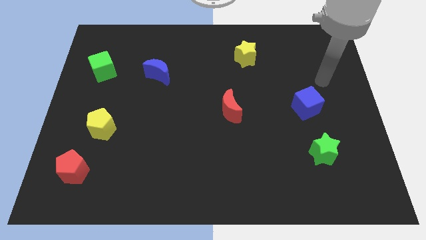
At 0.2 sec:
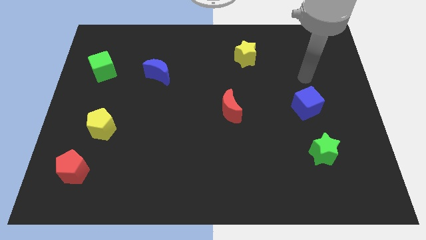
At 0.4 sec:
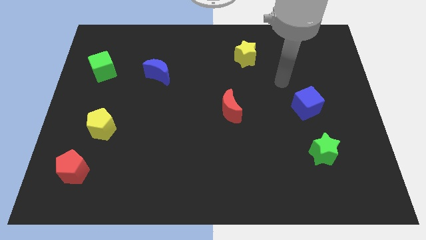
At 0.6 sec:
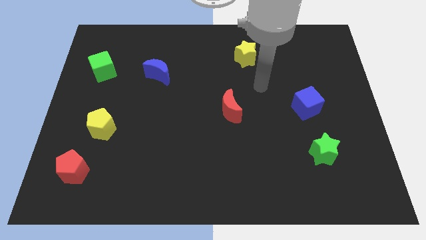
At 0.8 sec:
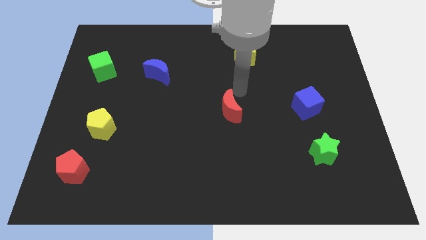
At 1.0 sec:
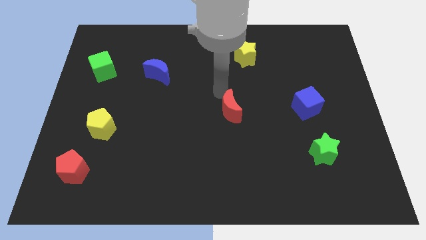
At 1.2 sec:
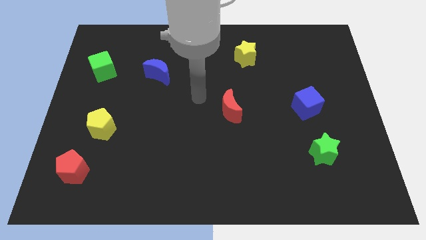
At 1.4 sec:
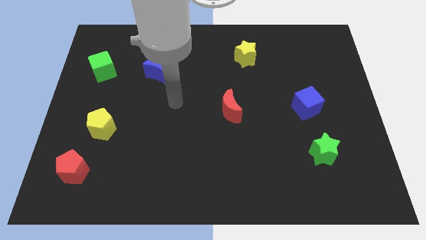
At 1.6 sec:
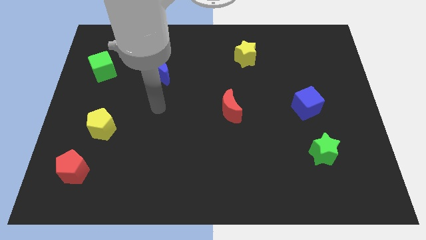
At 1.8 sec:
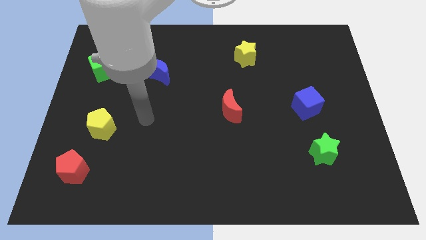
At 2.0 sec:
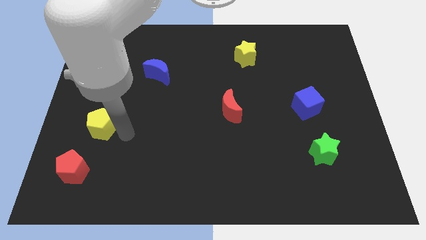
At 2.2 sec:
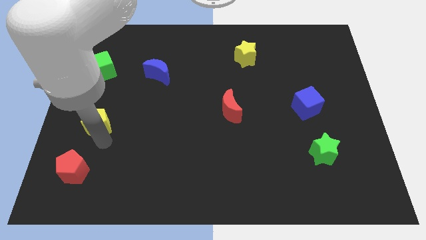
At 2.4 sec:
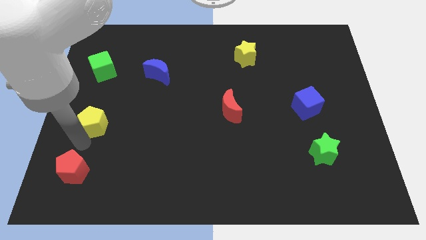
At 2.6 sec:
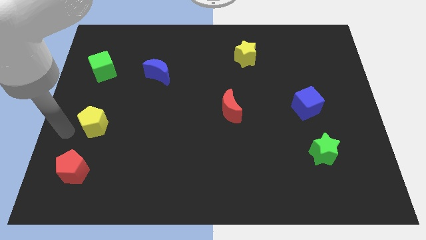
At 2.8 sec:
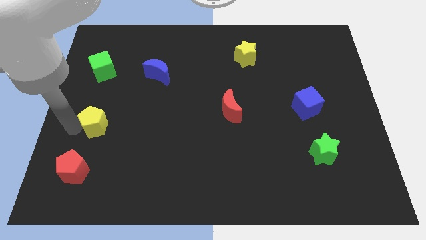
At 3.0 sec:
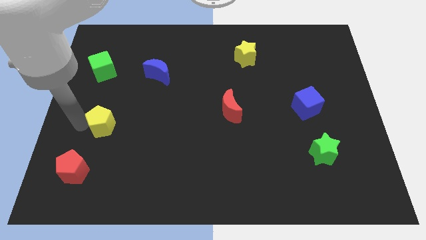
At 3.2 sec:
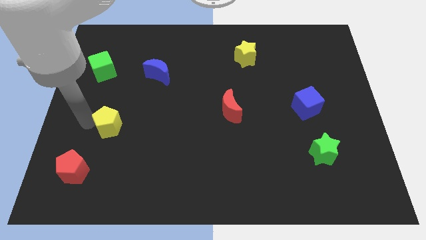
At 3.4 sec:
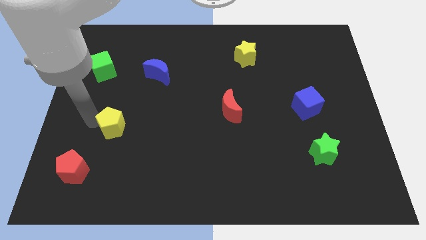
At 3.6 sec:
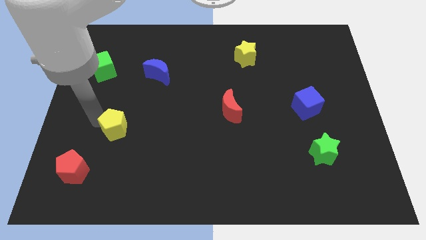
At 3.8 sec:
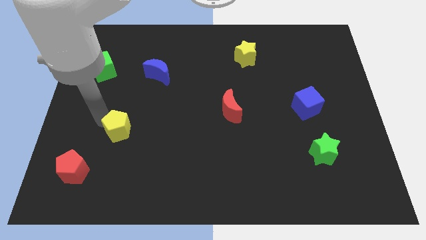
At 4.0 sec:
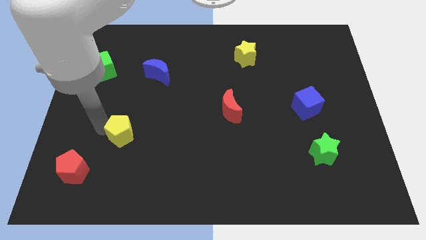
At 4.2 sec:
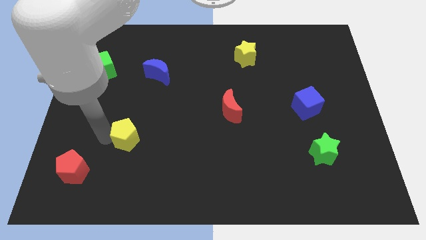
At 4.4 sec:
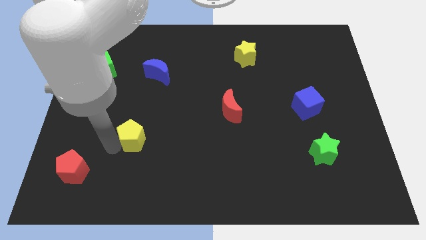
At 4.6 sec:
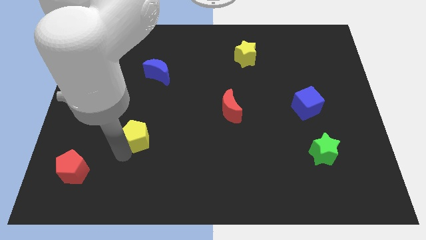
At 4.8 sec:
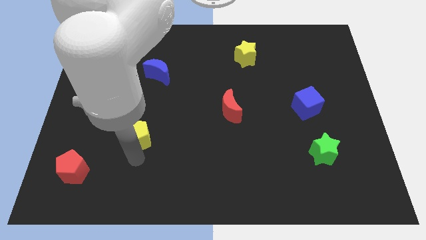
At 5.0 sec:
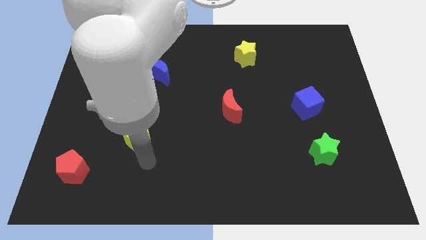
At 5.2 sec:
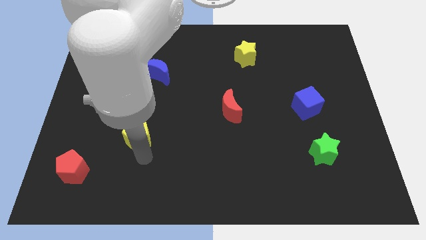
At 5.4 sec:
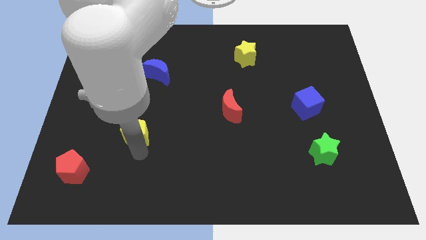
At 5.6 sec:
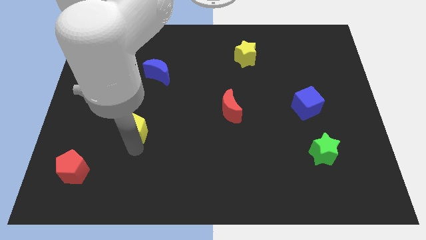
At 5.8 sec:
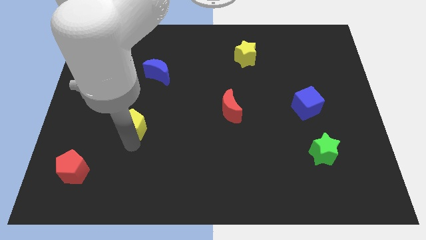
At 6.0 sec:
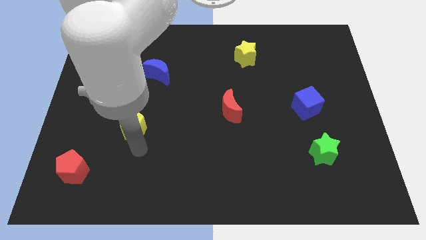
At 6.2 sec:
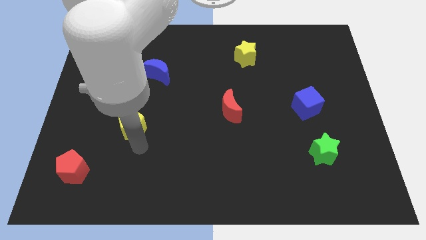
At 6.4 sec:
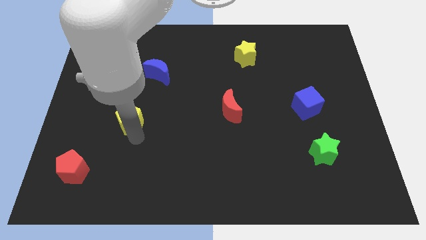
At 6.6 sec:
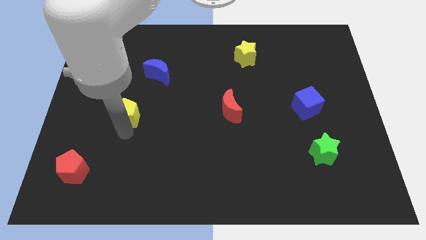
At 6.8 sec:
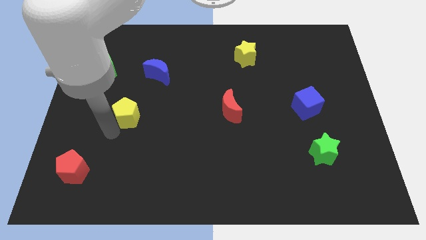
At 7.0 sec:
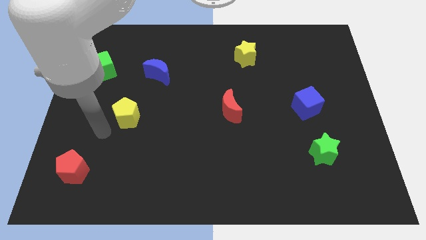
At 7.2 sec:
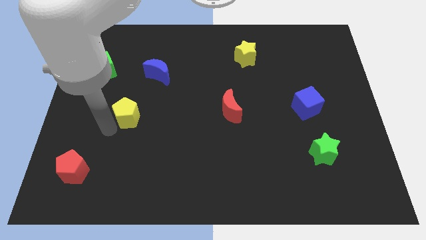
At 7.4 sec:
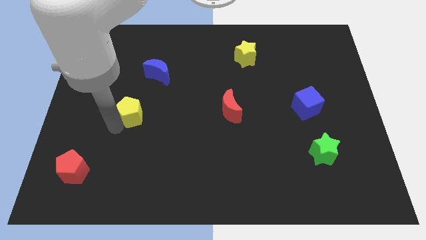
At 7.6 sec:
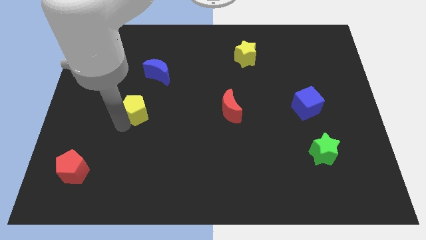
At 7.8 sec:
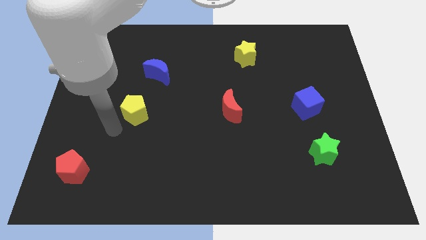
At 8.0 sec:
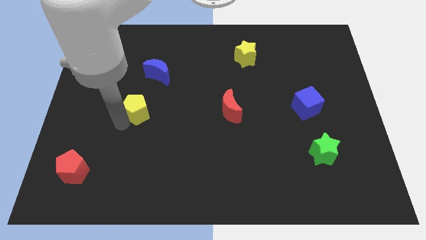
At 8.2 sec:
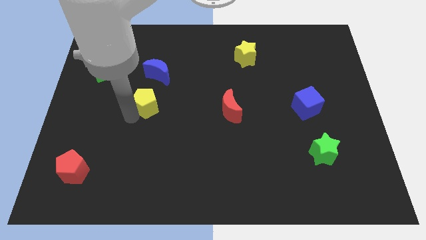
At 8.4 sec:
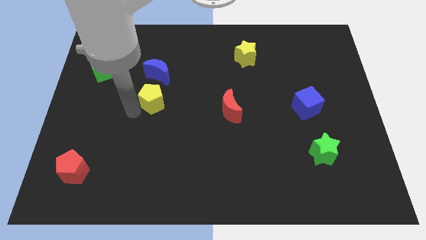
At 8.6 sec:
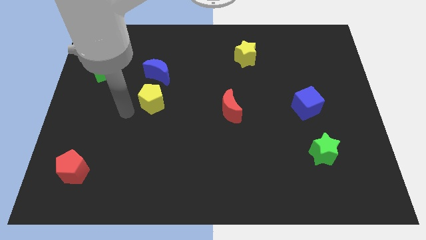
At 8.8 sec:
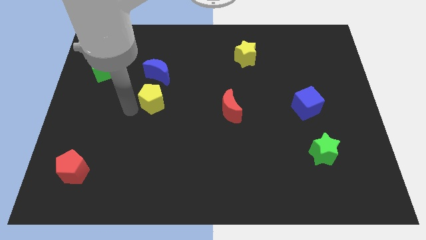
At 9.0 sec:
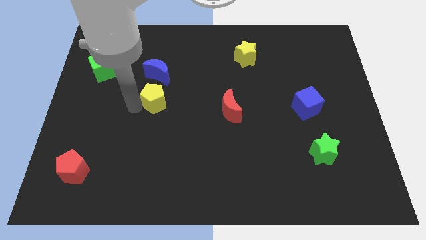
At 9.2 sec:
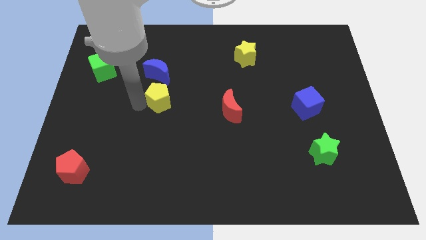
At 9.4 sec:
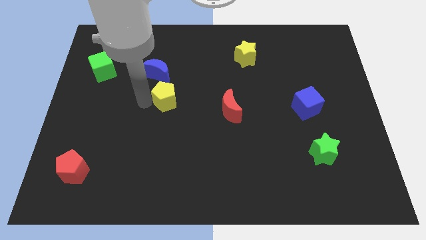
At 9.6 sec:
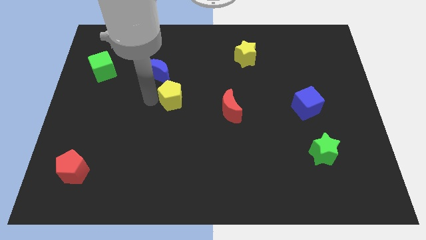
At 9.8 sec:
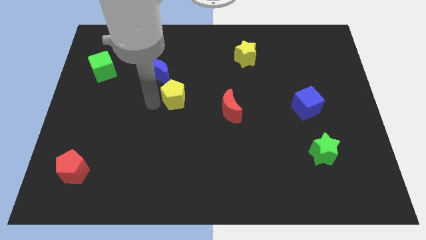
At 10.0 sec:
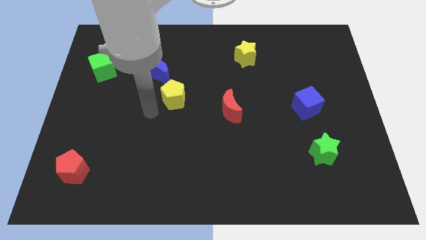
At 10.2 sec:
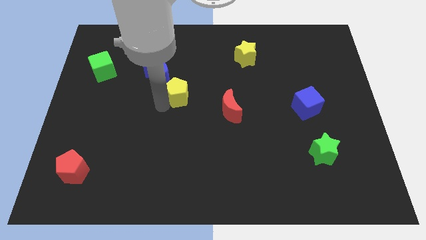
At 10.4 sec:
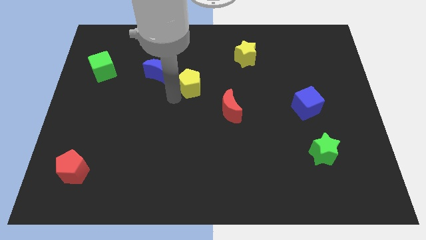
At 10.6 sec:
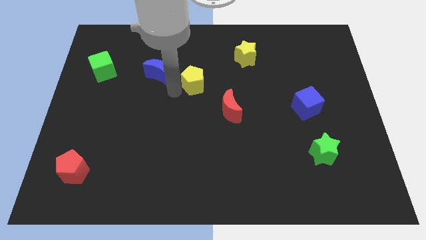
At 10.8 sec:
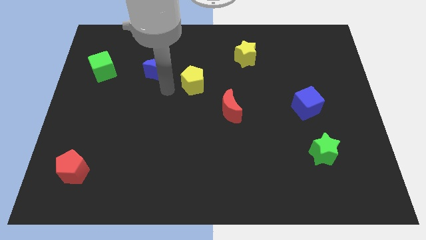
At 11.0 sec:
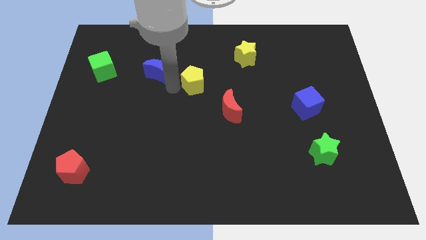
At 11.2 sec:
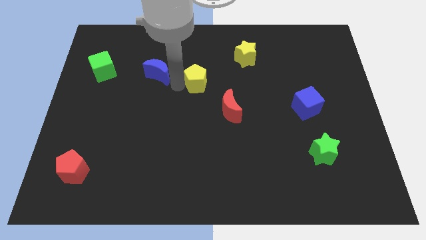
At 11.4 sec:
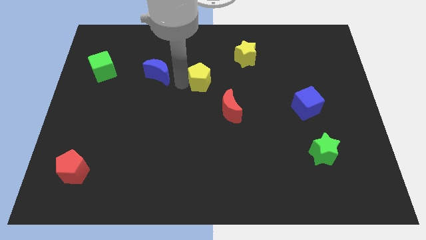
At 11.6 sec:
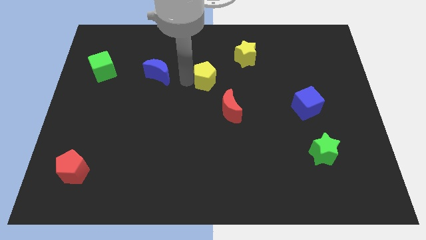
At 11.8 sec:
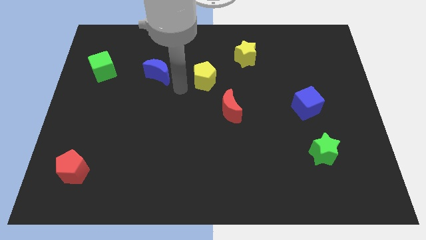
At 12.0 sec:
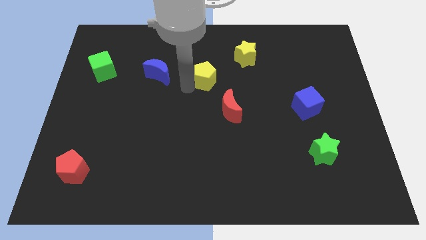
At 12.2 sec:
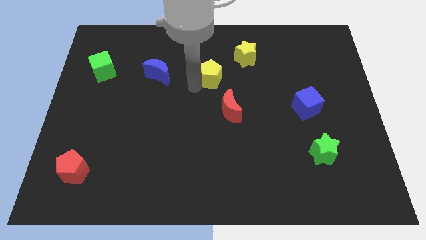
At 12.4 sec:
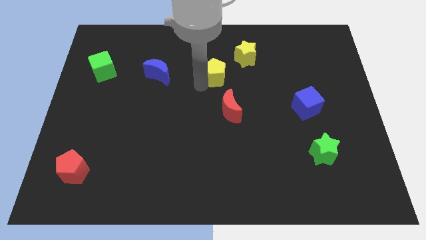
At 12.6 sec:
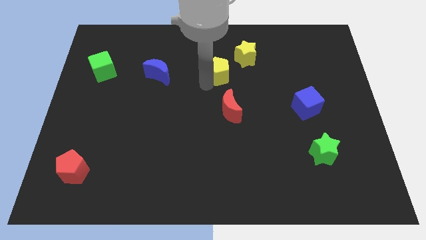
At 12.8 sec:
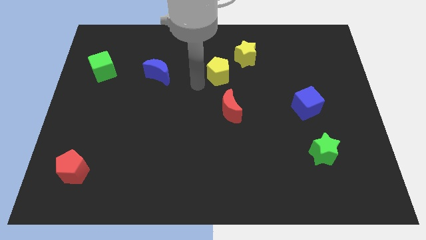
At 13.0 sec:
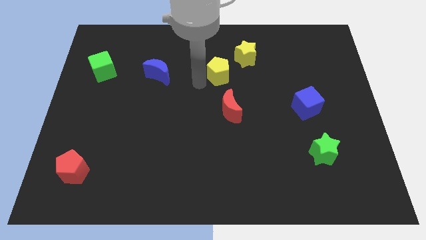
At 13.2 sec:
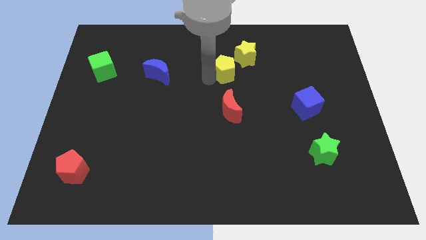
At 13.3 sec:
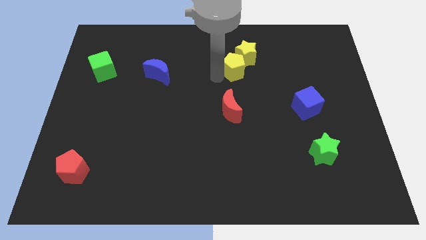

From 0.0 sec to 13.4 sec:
slide the yellow pentagon close to the yellow star
